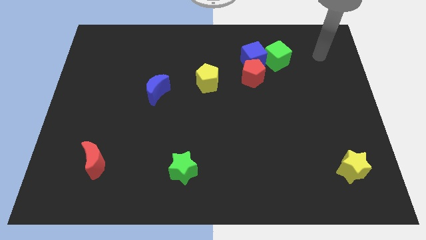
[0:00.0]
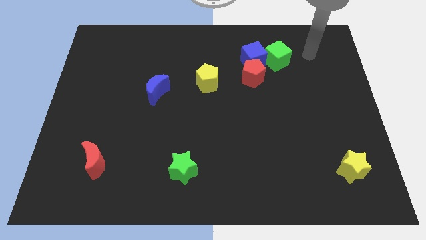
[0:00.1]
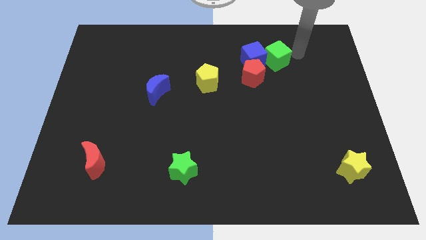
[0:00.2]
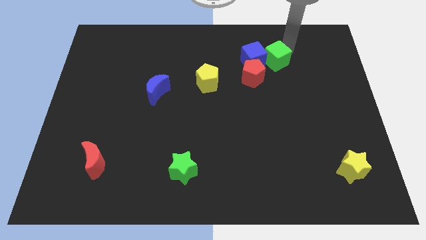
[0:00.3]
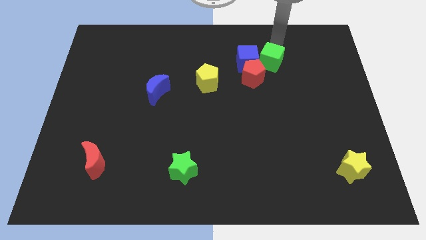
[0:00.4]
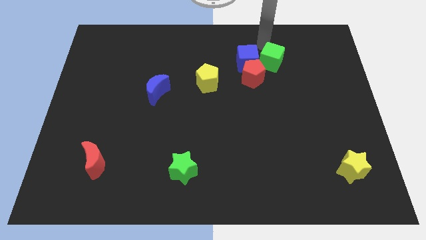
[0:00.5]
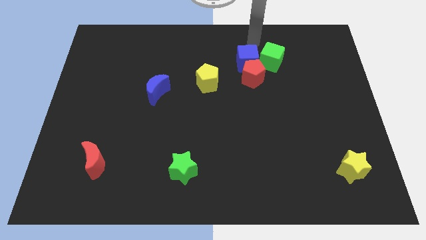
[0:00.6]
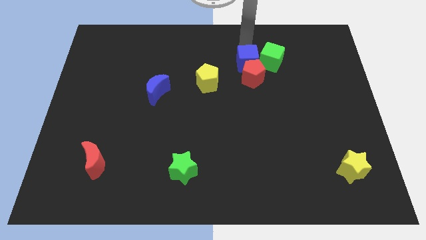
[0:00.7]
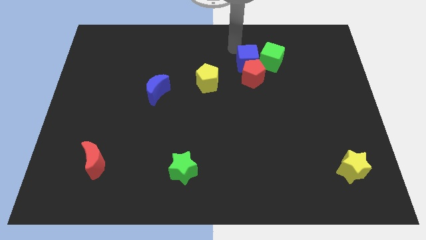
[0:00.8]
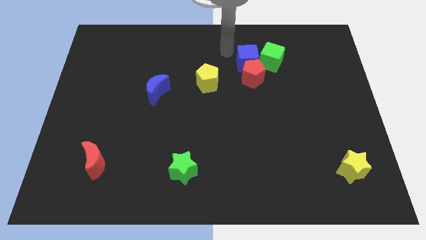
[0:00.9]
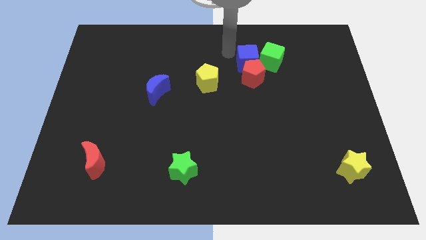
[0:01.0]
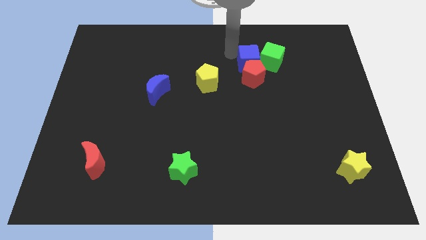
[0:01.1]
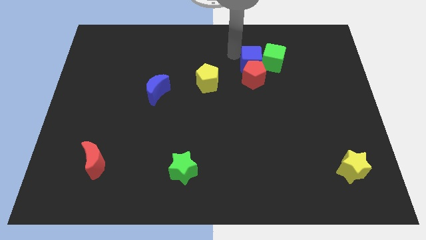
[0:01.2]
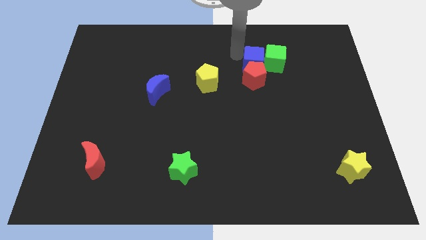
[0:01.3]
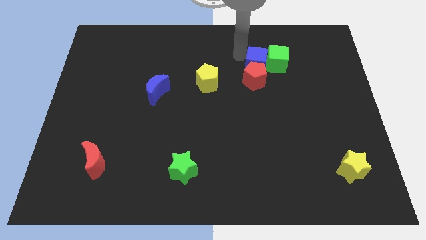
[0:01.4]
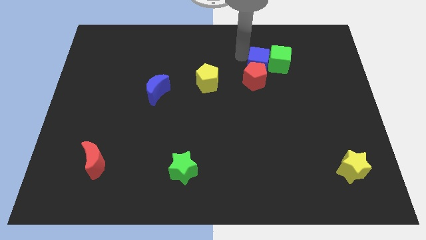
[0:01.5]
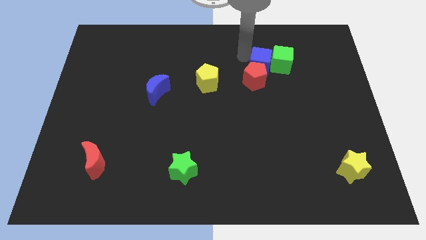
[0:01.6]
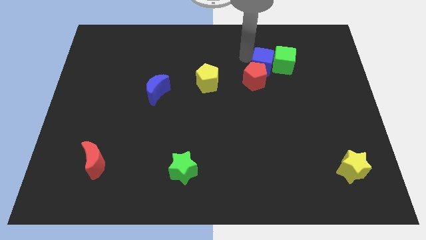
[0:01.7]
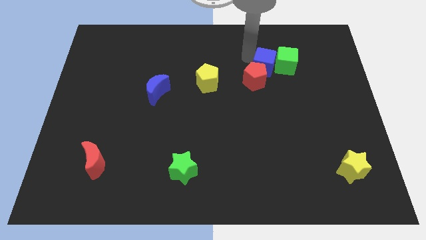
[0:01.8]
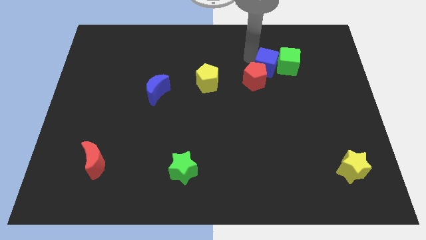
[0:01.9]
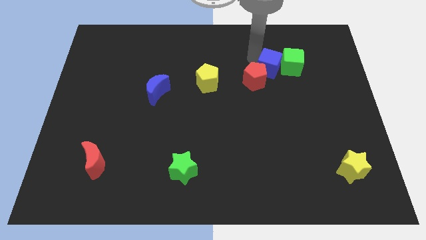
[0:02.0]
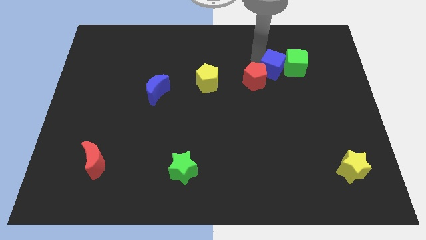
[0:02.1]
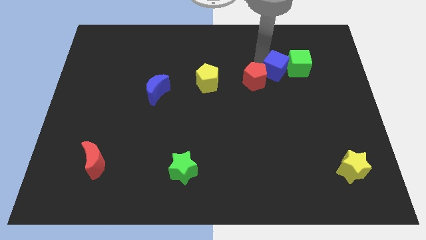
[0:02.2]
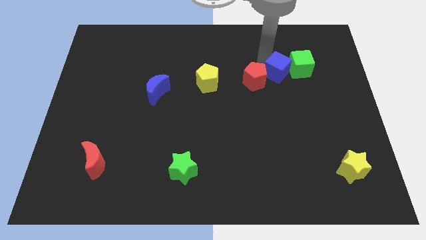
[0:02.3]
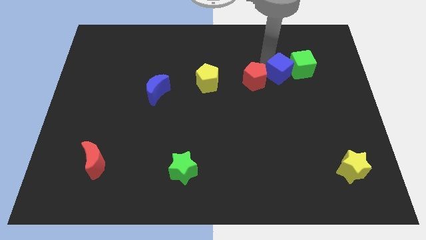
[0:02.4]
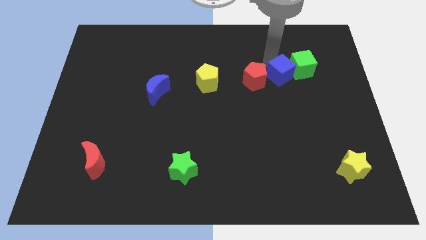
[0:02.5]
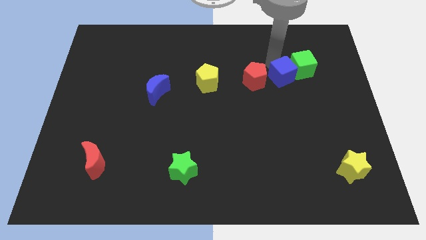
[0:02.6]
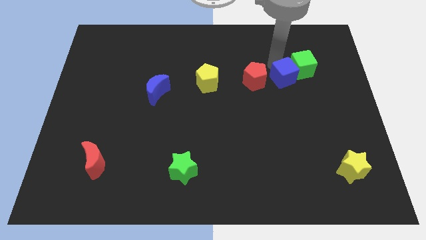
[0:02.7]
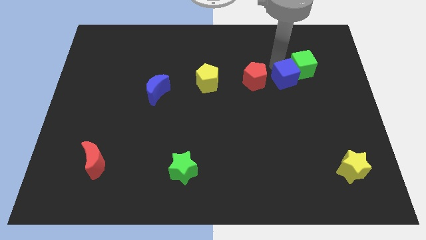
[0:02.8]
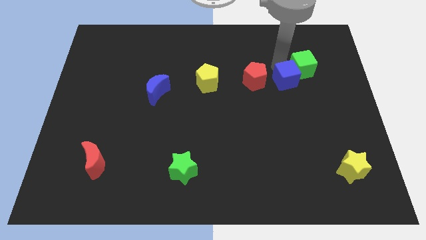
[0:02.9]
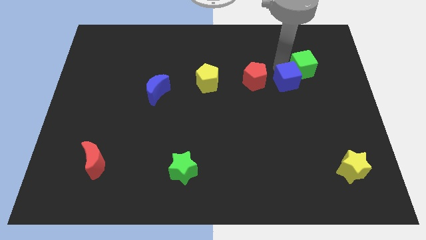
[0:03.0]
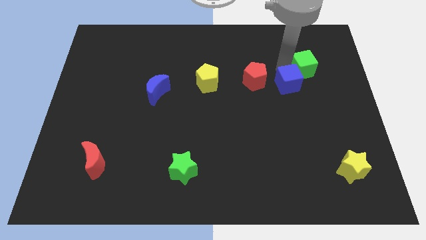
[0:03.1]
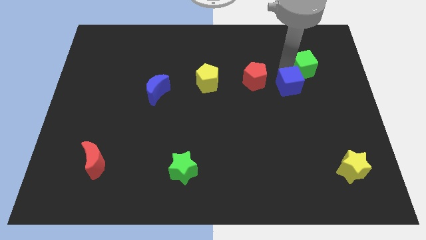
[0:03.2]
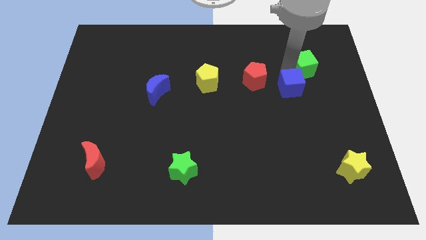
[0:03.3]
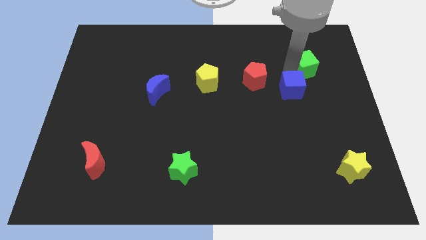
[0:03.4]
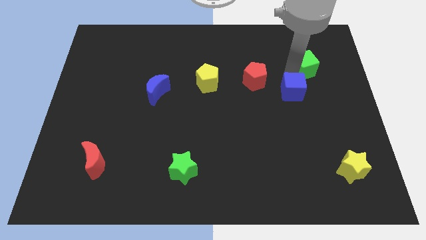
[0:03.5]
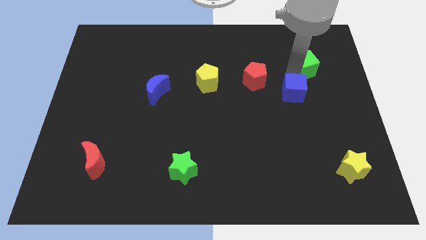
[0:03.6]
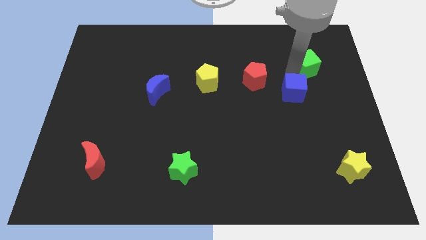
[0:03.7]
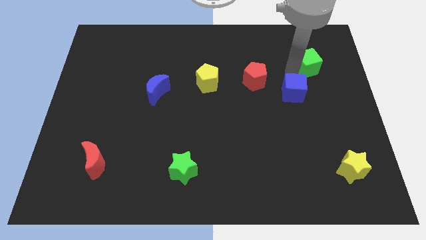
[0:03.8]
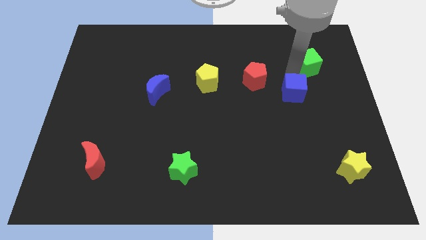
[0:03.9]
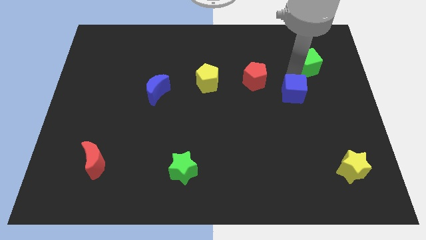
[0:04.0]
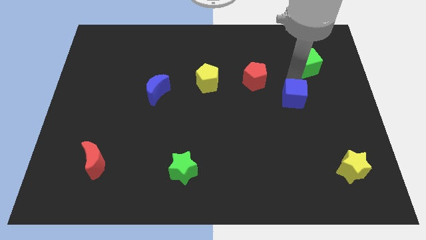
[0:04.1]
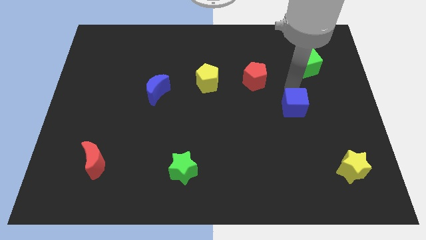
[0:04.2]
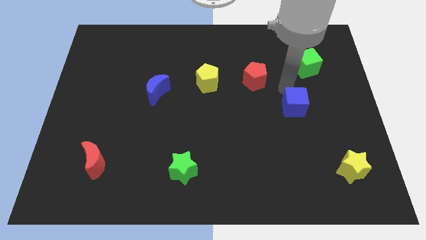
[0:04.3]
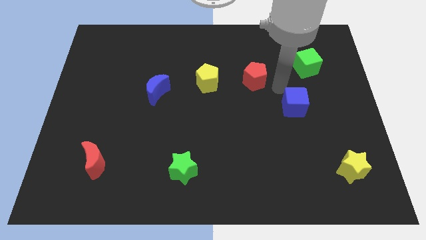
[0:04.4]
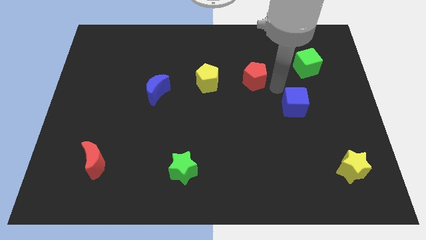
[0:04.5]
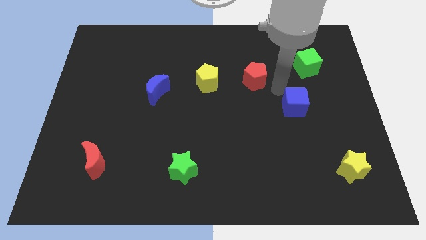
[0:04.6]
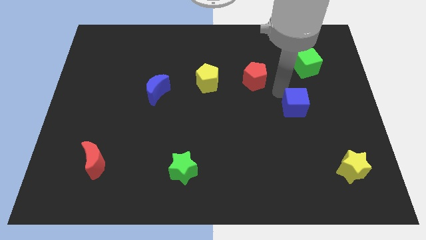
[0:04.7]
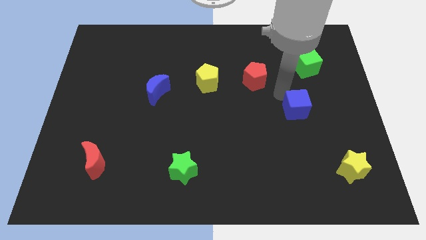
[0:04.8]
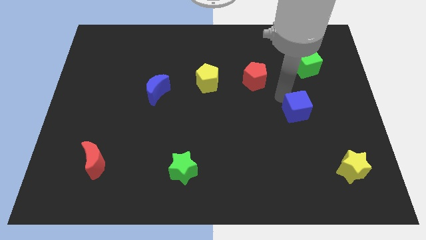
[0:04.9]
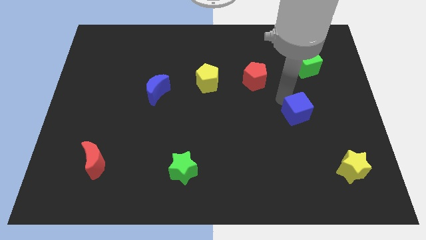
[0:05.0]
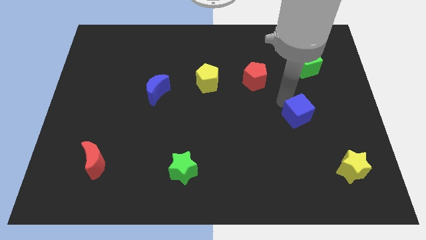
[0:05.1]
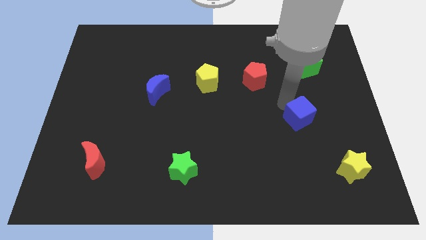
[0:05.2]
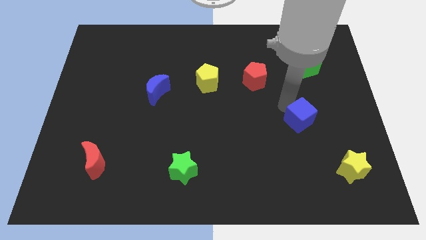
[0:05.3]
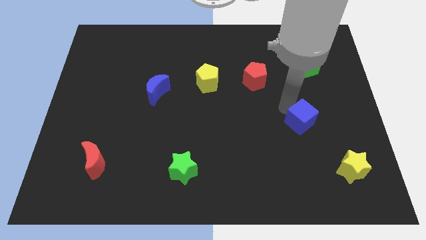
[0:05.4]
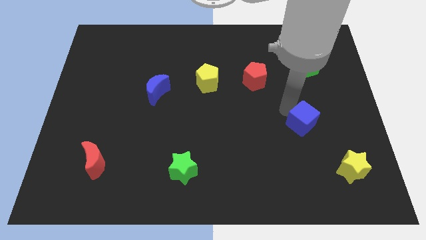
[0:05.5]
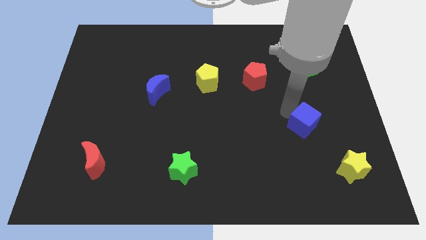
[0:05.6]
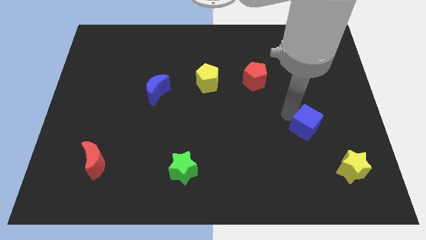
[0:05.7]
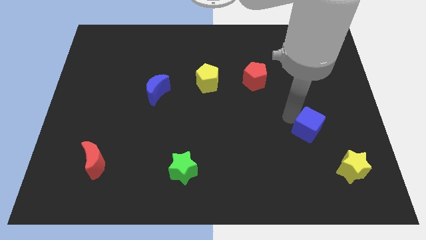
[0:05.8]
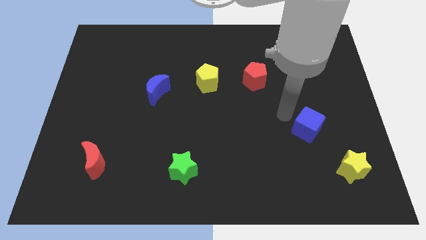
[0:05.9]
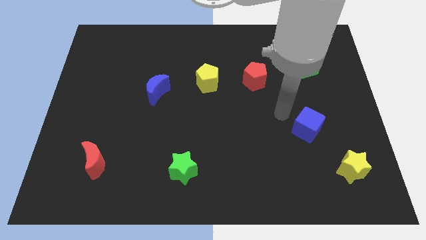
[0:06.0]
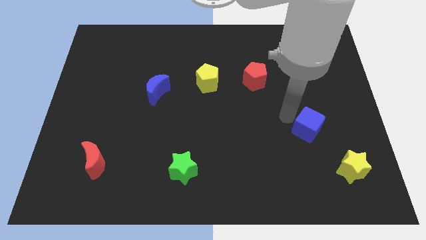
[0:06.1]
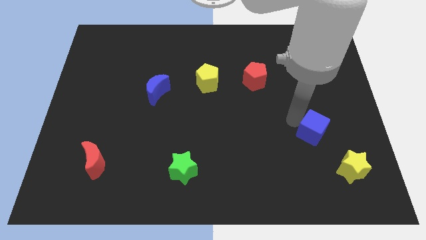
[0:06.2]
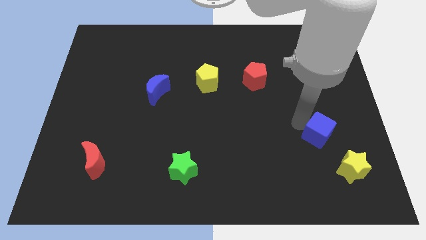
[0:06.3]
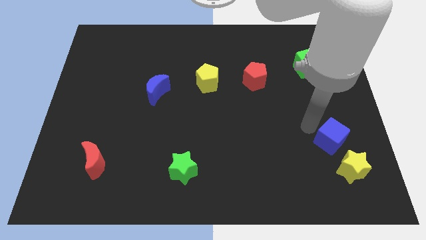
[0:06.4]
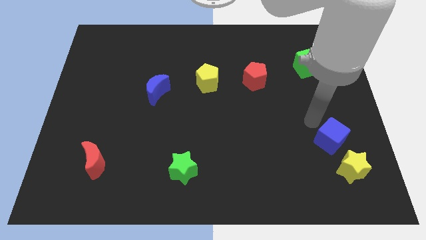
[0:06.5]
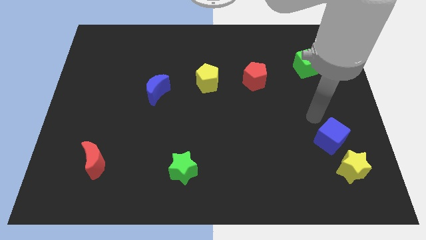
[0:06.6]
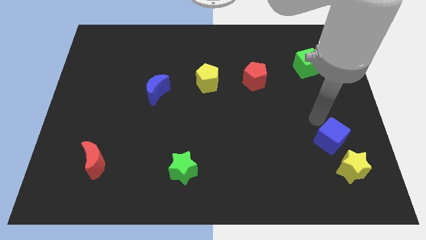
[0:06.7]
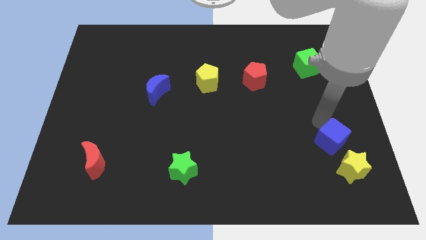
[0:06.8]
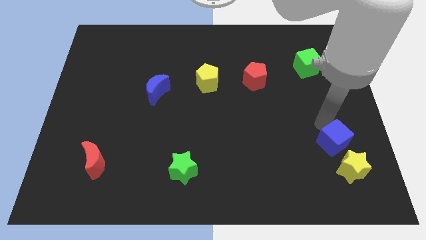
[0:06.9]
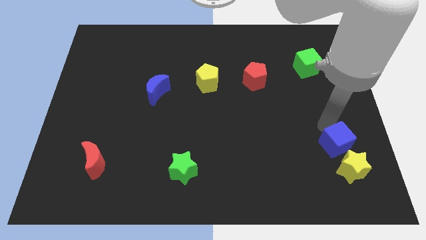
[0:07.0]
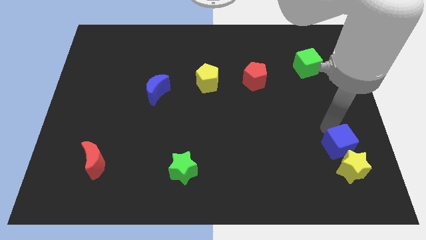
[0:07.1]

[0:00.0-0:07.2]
put the blue cube close to the yellow star
